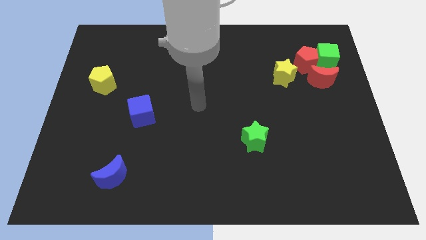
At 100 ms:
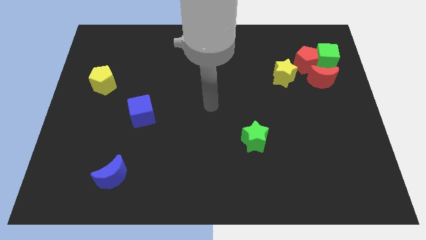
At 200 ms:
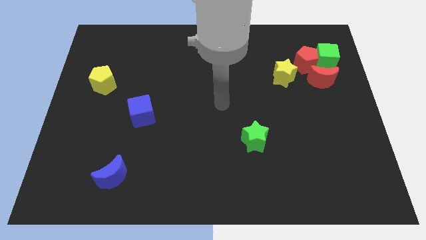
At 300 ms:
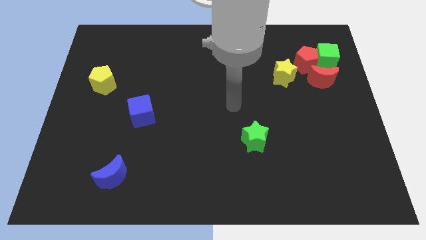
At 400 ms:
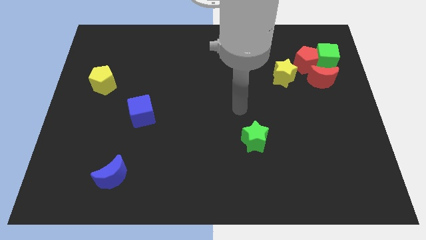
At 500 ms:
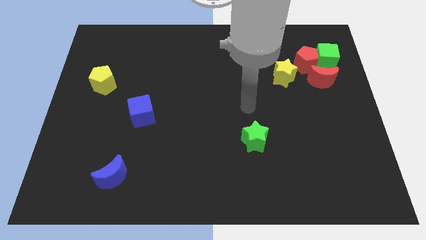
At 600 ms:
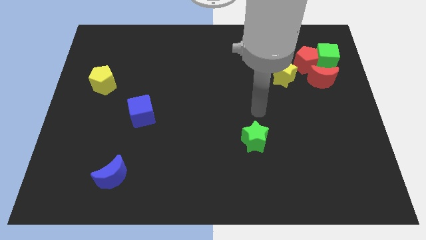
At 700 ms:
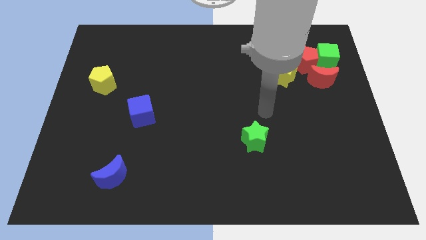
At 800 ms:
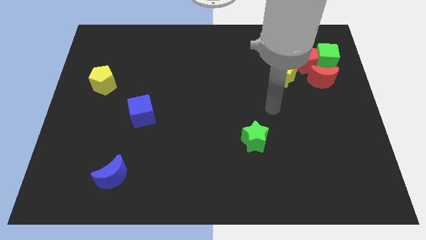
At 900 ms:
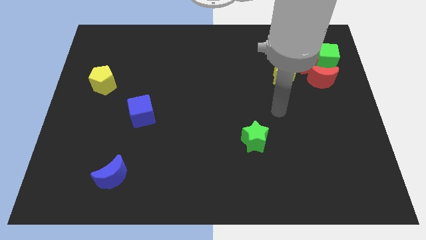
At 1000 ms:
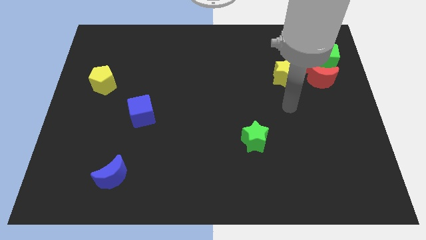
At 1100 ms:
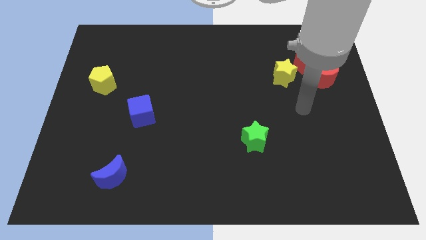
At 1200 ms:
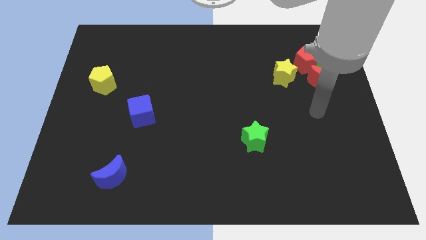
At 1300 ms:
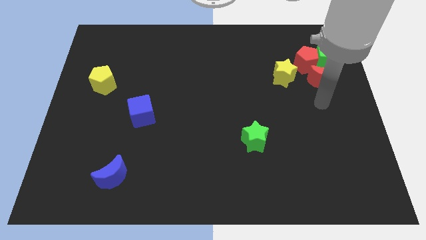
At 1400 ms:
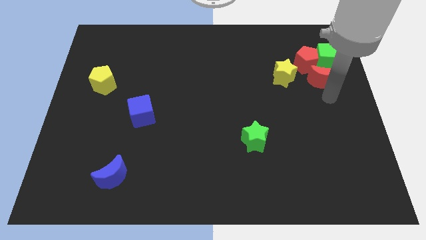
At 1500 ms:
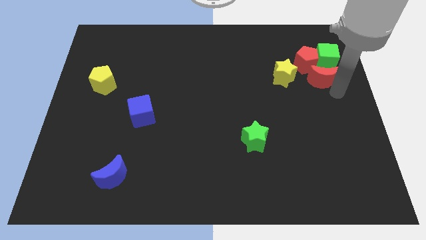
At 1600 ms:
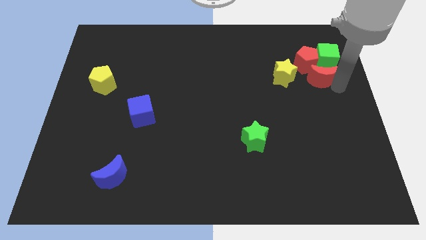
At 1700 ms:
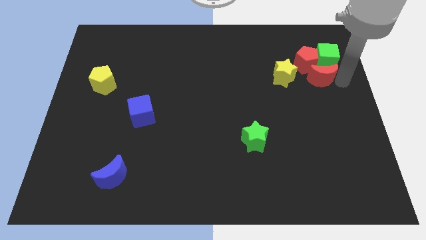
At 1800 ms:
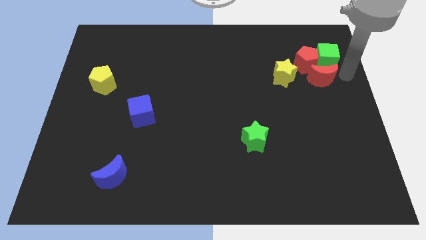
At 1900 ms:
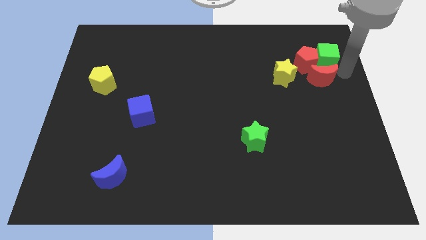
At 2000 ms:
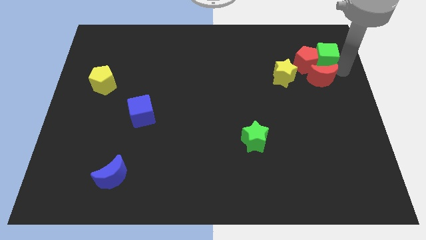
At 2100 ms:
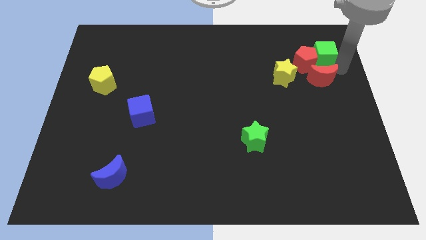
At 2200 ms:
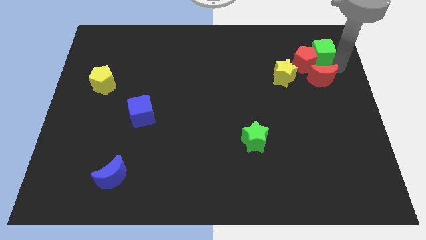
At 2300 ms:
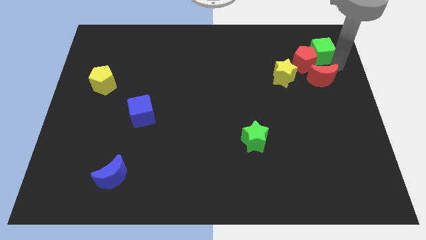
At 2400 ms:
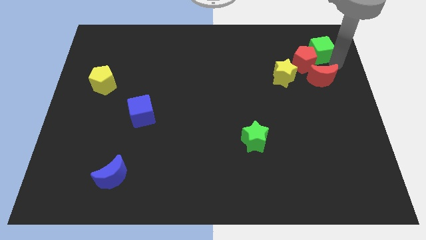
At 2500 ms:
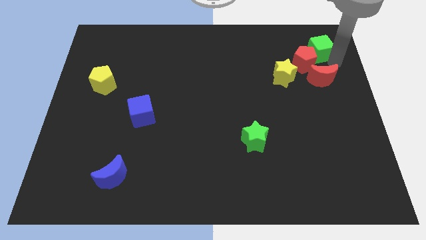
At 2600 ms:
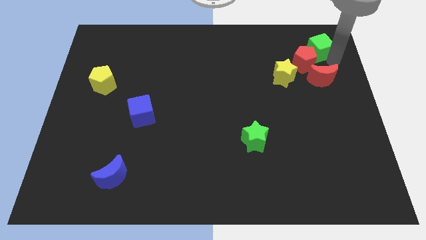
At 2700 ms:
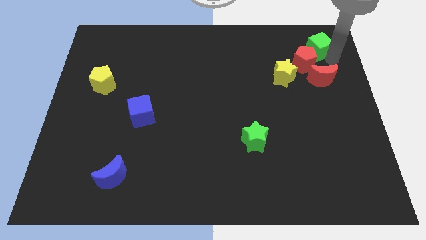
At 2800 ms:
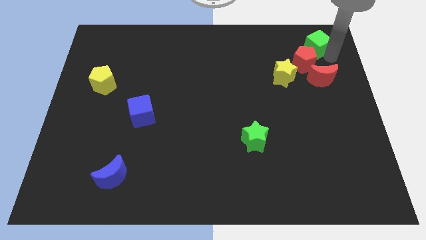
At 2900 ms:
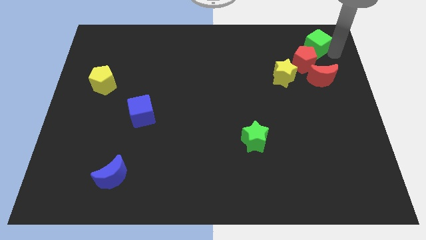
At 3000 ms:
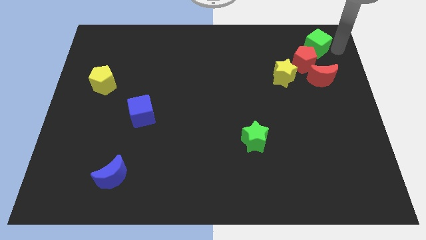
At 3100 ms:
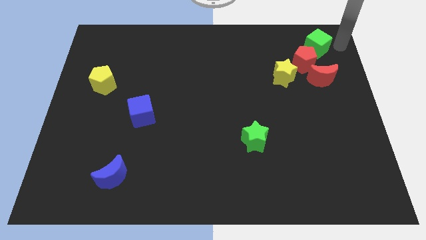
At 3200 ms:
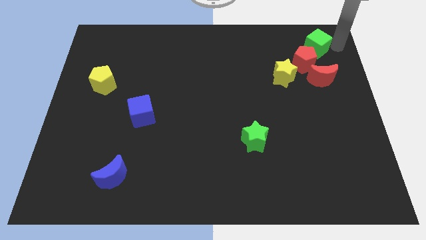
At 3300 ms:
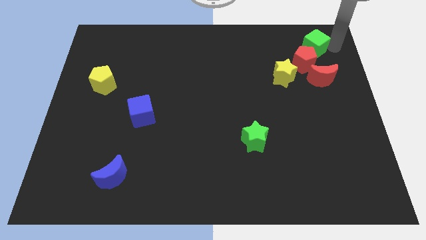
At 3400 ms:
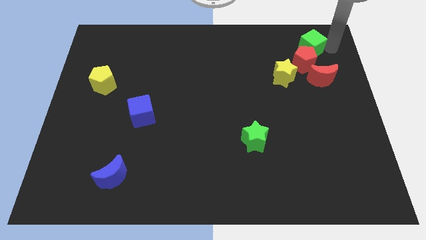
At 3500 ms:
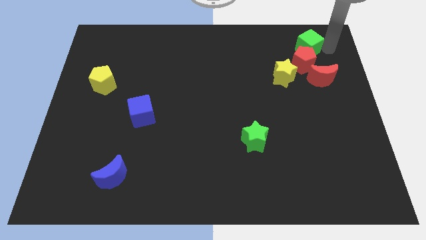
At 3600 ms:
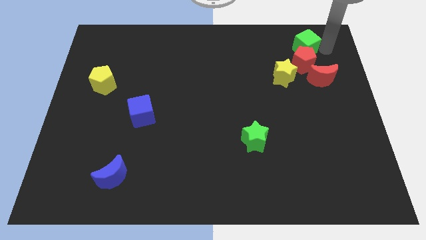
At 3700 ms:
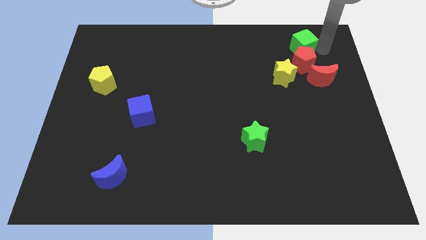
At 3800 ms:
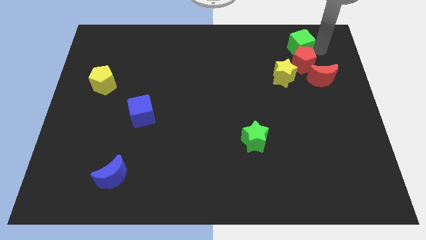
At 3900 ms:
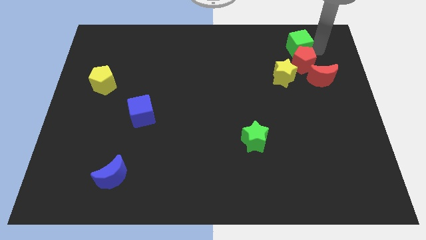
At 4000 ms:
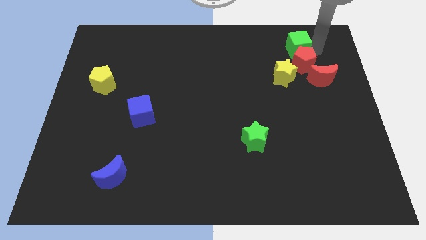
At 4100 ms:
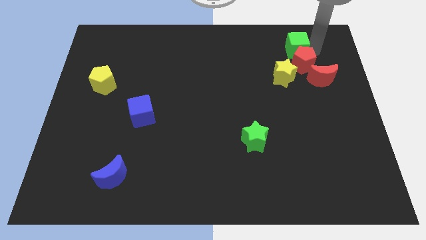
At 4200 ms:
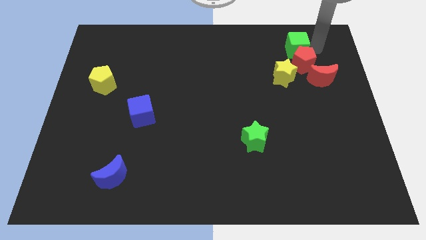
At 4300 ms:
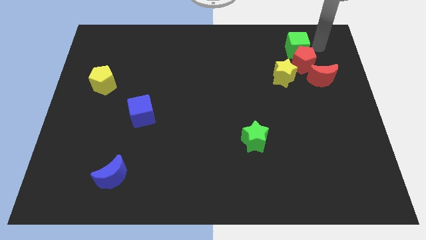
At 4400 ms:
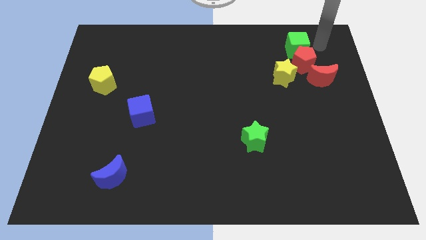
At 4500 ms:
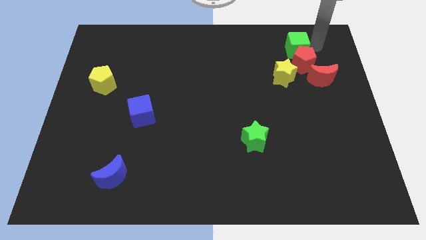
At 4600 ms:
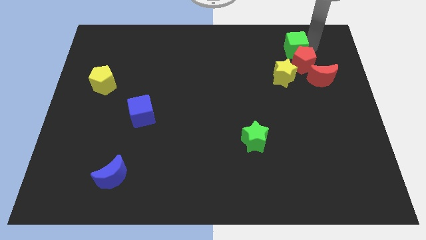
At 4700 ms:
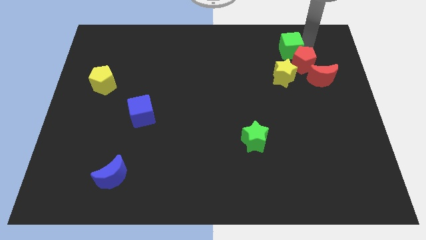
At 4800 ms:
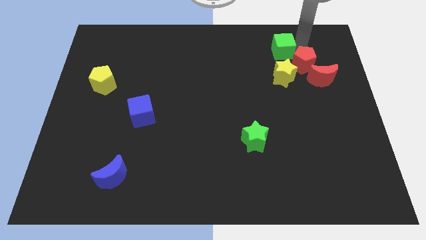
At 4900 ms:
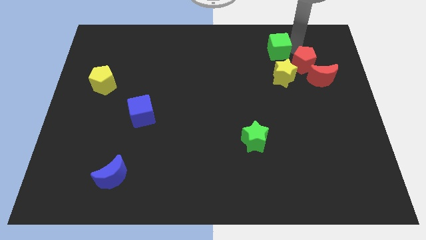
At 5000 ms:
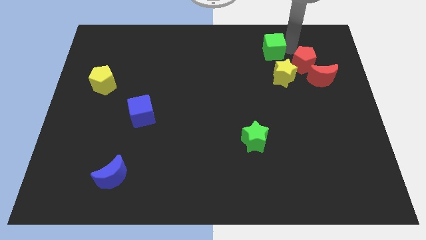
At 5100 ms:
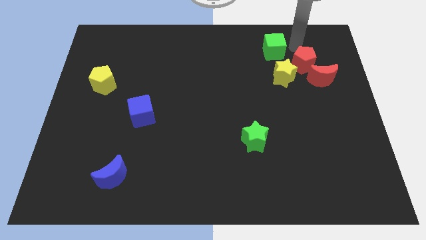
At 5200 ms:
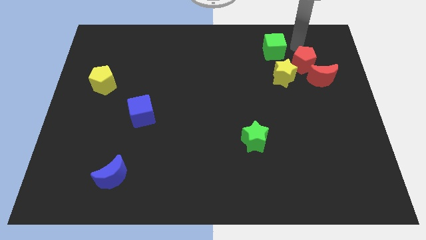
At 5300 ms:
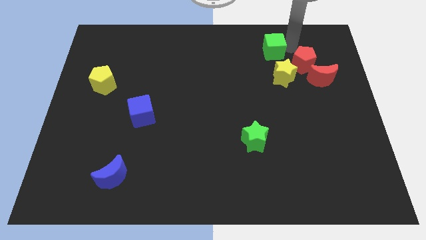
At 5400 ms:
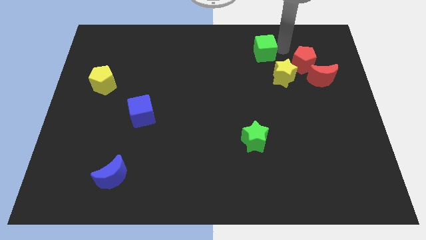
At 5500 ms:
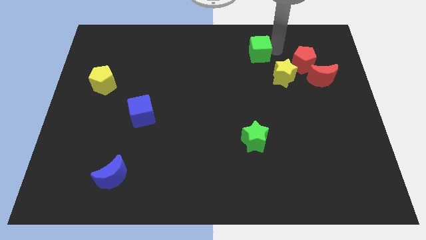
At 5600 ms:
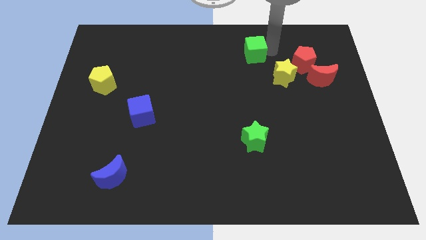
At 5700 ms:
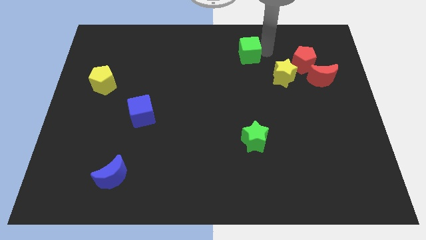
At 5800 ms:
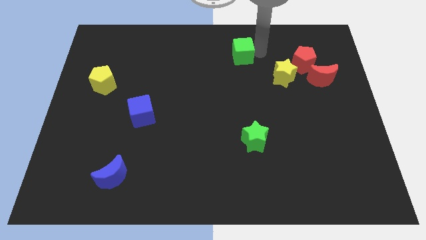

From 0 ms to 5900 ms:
push the green cube to the left

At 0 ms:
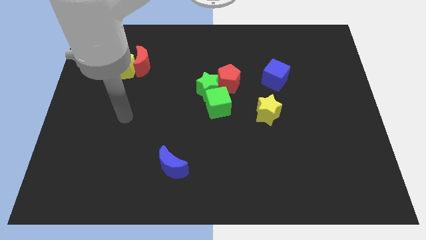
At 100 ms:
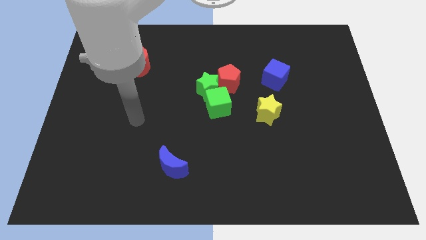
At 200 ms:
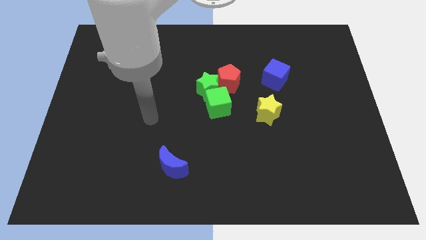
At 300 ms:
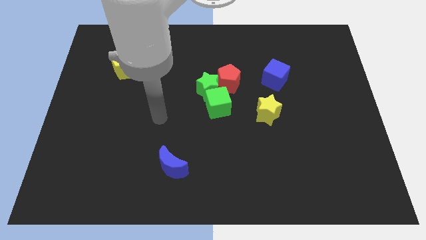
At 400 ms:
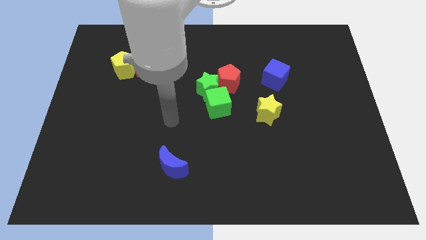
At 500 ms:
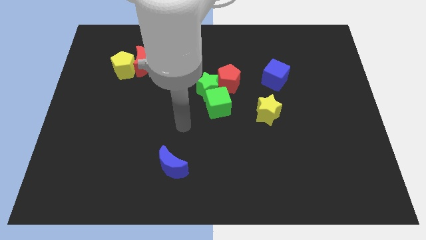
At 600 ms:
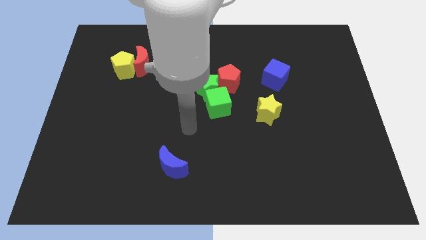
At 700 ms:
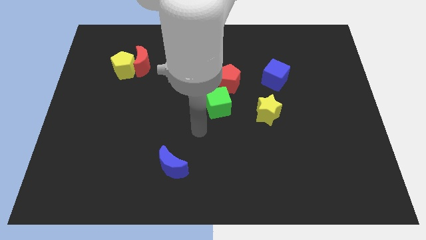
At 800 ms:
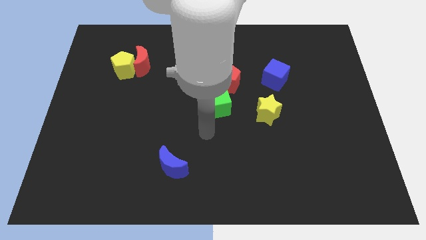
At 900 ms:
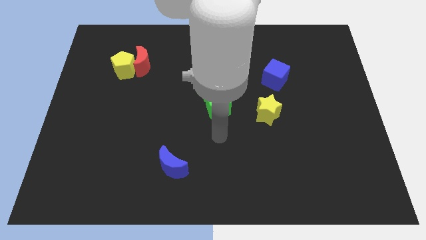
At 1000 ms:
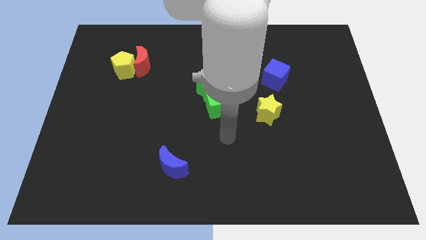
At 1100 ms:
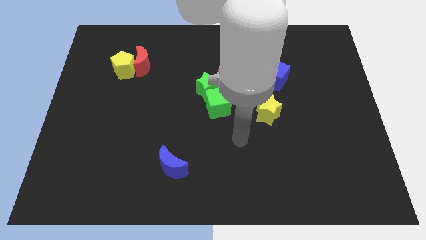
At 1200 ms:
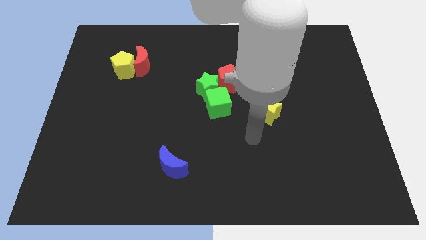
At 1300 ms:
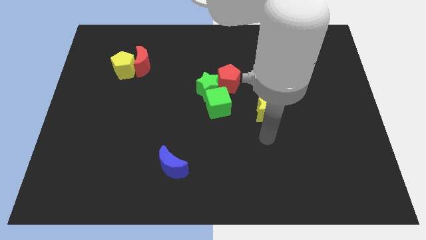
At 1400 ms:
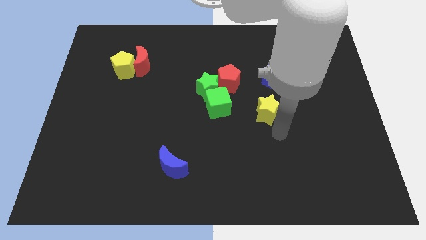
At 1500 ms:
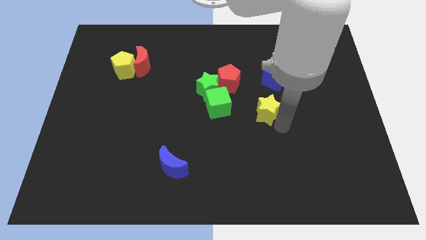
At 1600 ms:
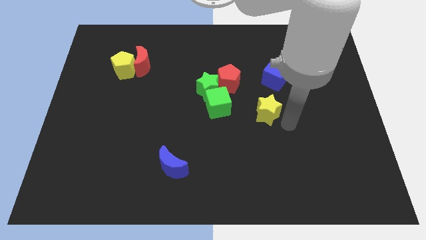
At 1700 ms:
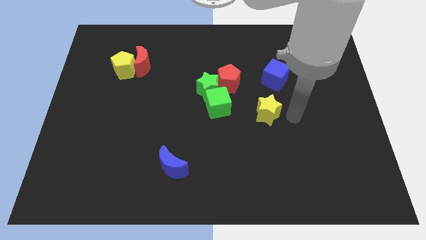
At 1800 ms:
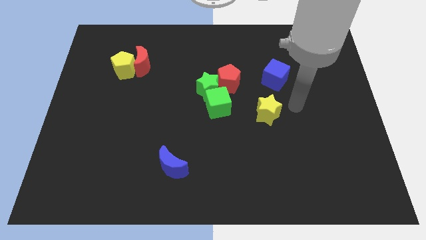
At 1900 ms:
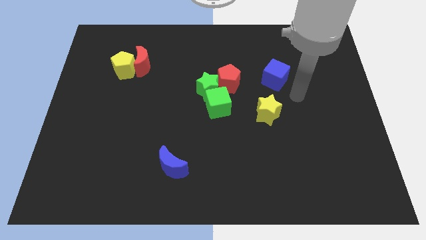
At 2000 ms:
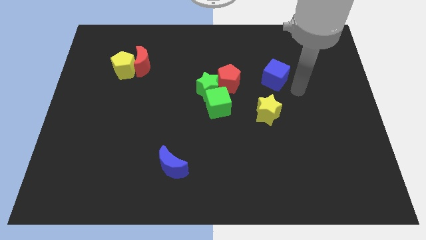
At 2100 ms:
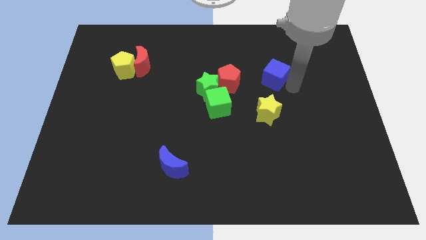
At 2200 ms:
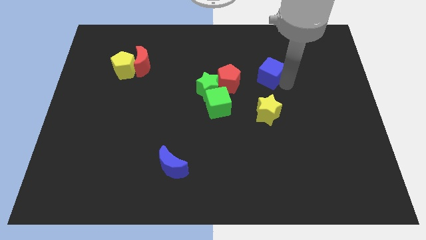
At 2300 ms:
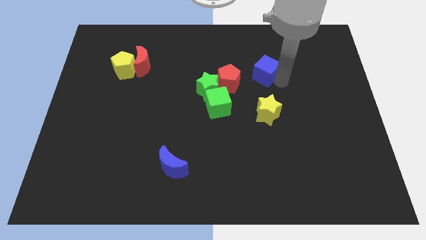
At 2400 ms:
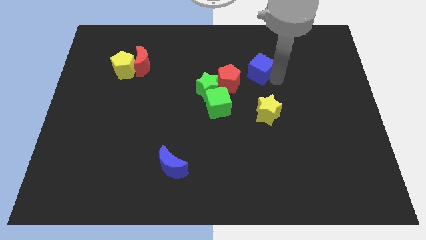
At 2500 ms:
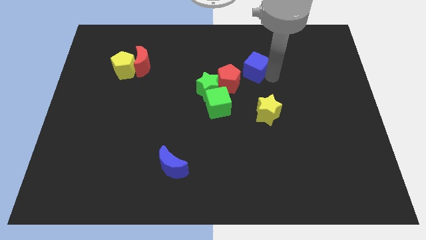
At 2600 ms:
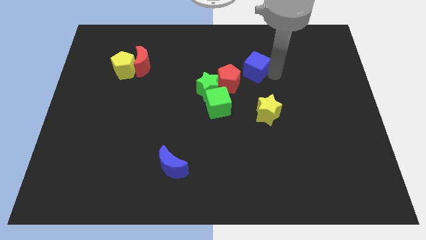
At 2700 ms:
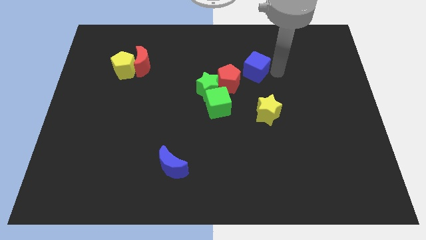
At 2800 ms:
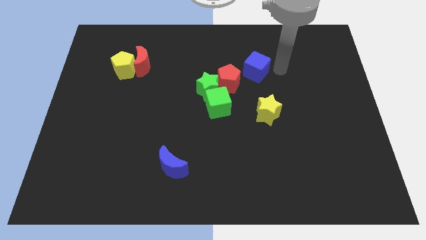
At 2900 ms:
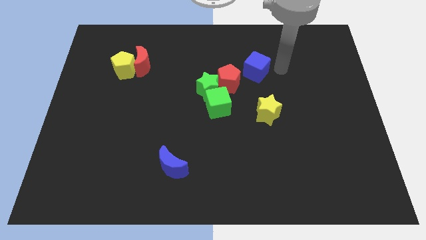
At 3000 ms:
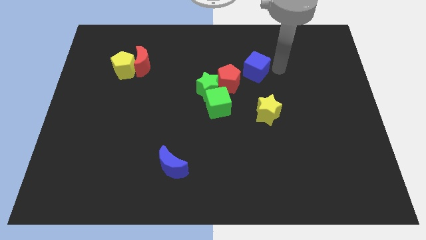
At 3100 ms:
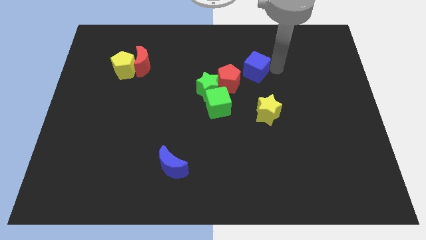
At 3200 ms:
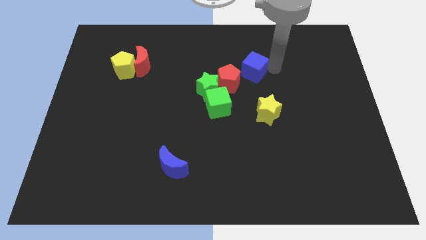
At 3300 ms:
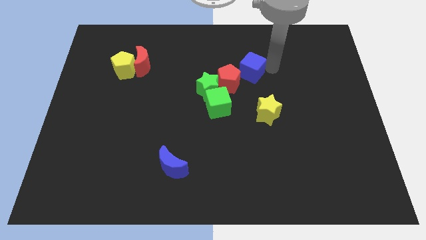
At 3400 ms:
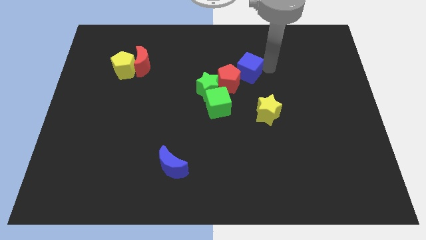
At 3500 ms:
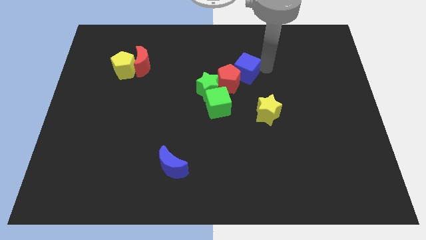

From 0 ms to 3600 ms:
slide the blue cube to the left a little bit
